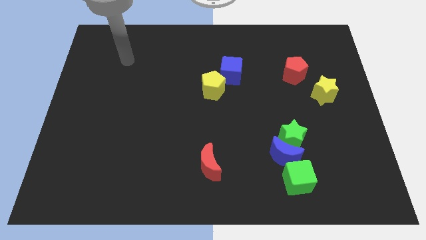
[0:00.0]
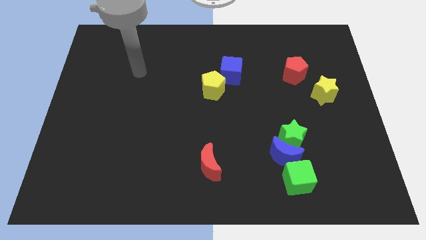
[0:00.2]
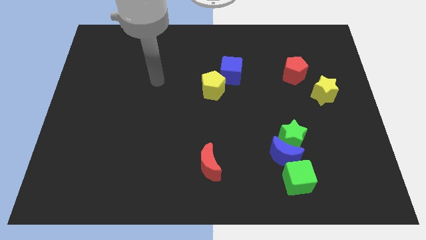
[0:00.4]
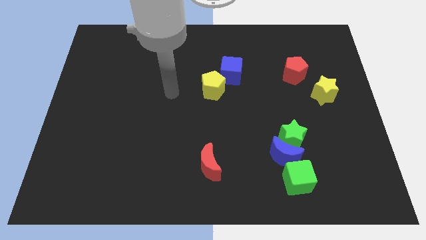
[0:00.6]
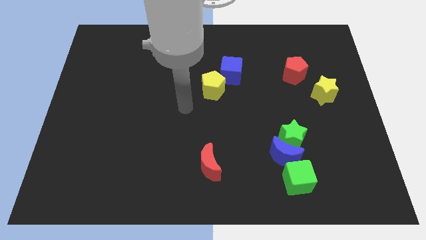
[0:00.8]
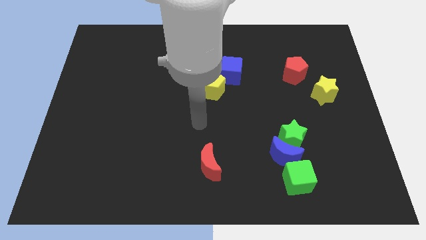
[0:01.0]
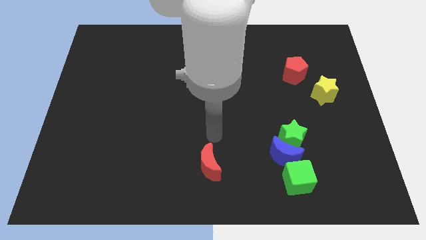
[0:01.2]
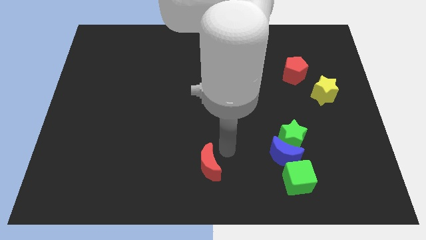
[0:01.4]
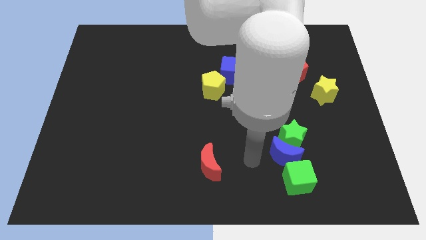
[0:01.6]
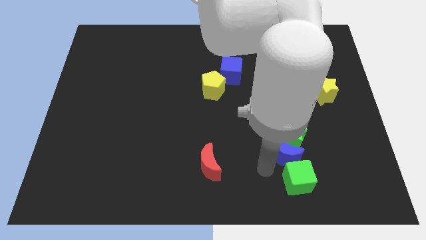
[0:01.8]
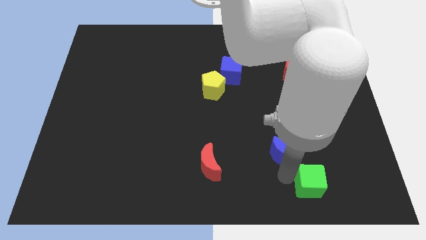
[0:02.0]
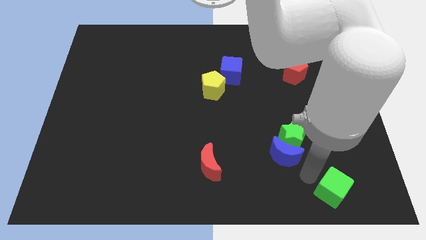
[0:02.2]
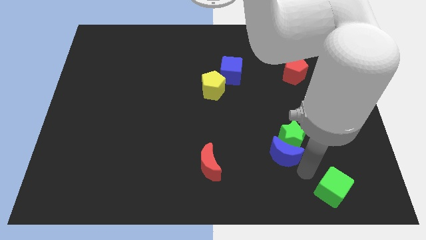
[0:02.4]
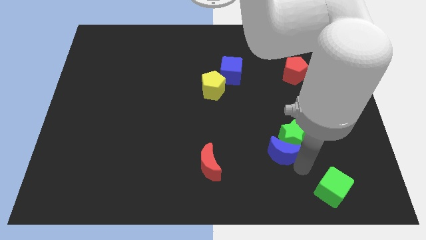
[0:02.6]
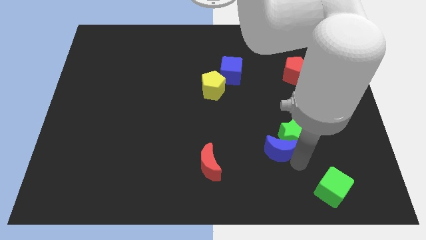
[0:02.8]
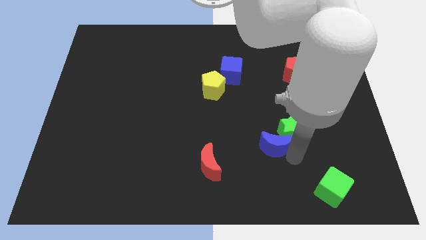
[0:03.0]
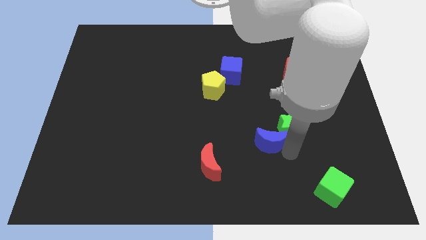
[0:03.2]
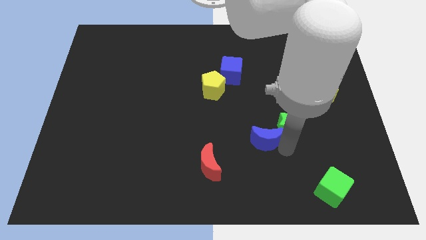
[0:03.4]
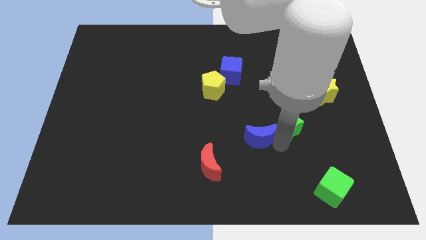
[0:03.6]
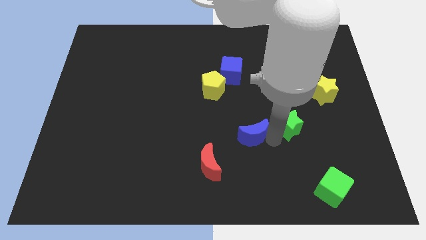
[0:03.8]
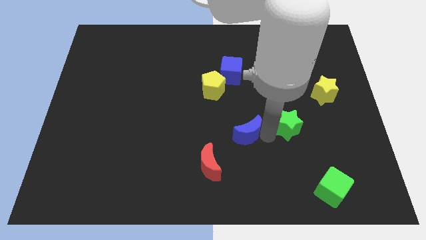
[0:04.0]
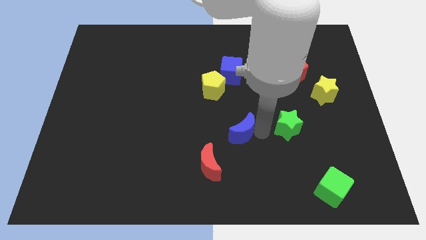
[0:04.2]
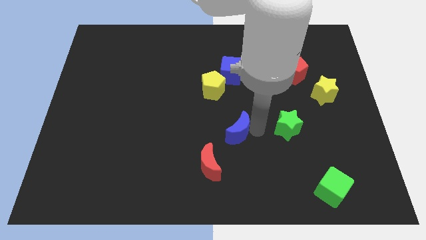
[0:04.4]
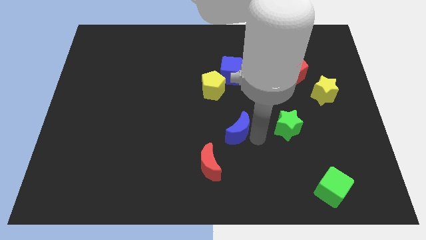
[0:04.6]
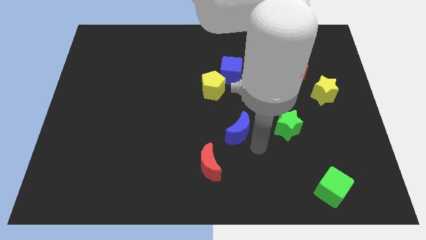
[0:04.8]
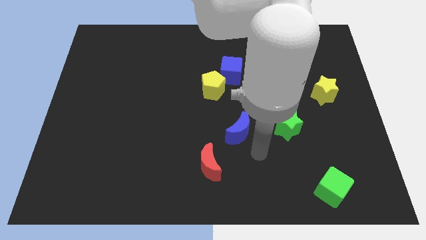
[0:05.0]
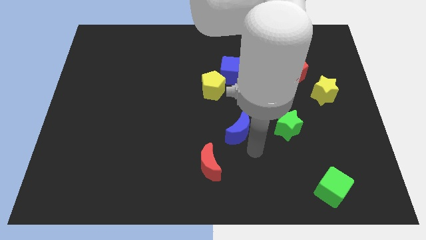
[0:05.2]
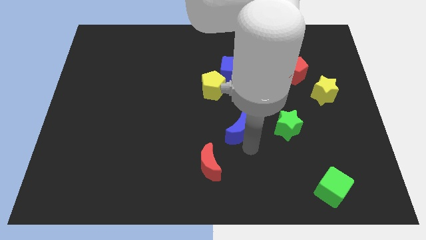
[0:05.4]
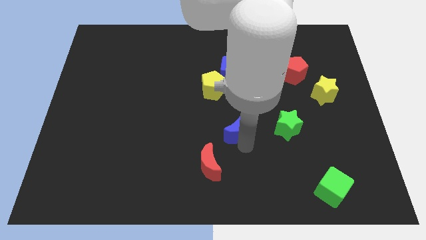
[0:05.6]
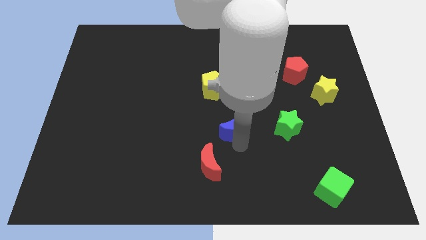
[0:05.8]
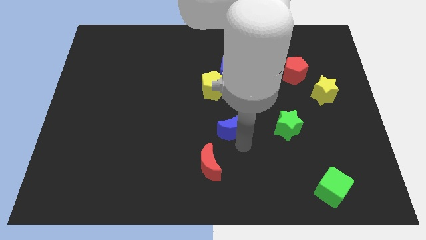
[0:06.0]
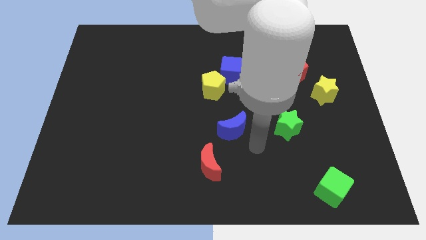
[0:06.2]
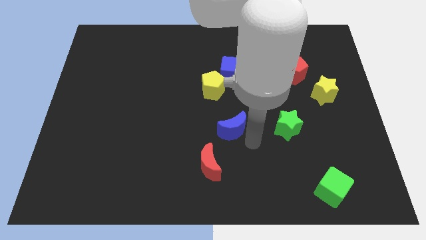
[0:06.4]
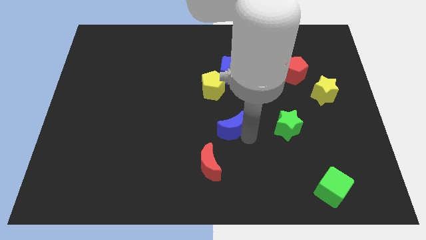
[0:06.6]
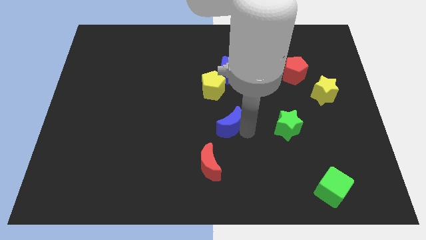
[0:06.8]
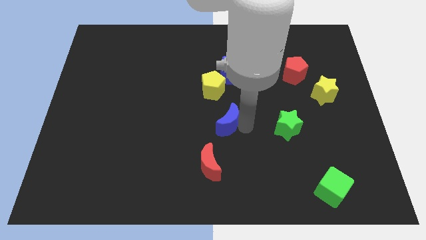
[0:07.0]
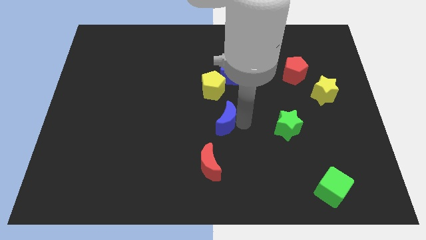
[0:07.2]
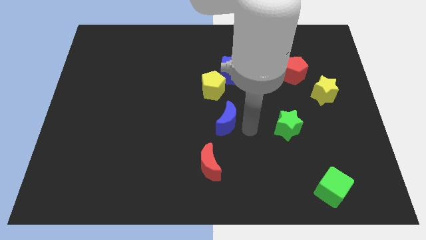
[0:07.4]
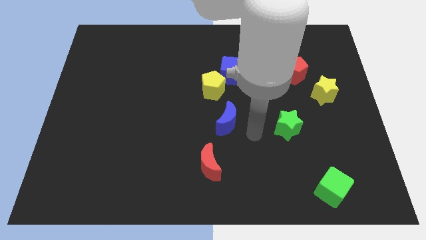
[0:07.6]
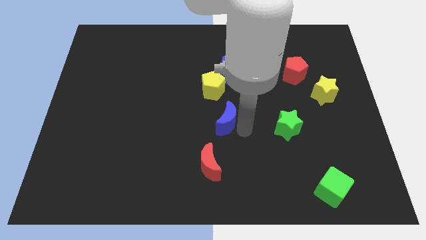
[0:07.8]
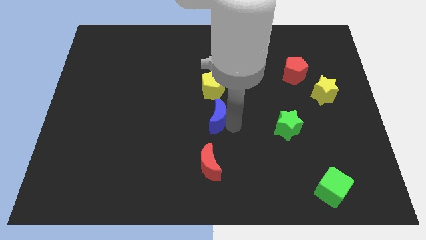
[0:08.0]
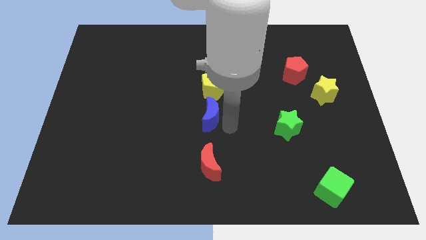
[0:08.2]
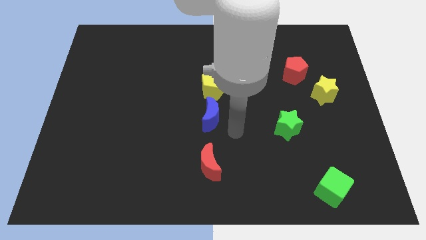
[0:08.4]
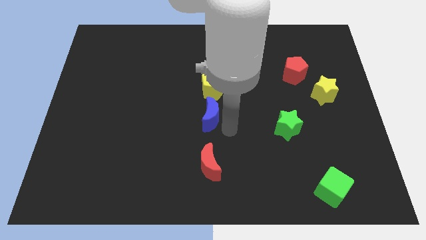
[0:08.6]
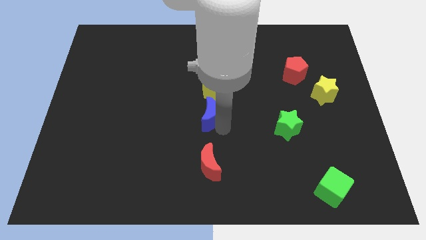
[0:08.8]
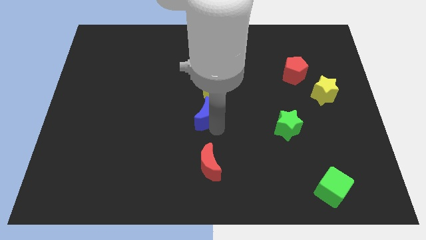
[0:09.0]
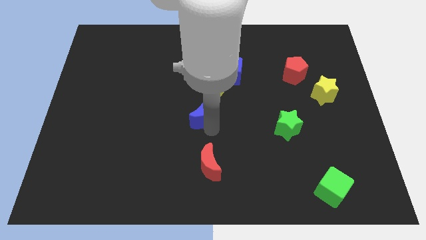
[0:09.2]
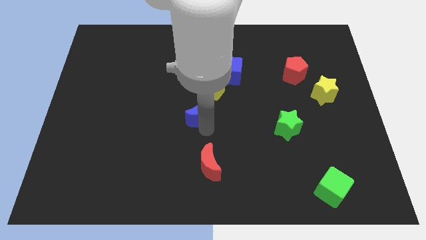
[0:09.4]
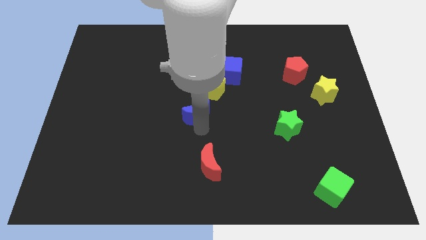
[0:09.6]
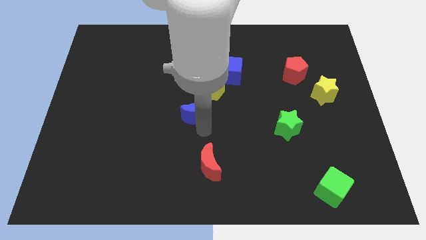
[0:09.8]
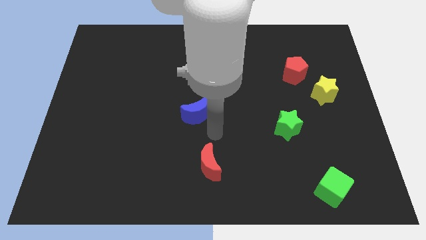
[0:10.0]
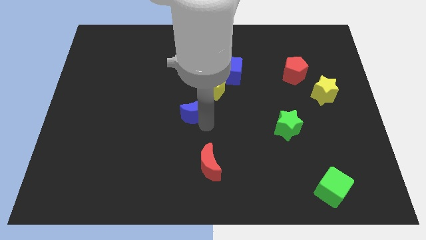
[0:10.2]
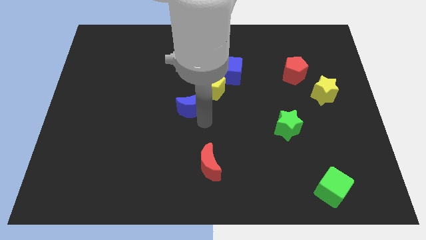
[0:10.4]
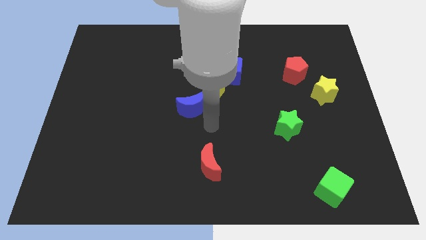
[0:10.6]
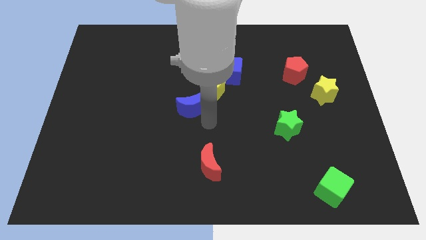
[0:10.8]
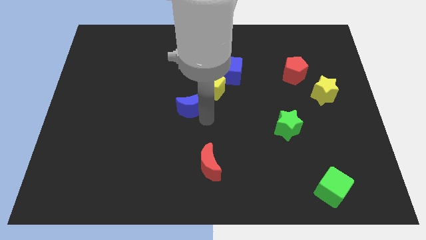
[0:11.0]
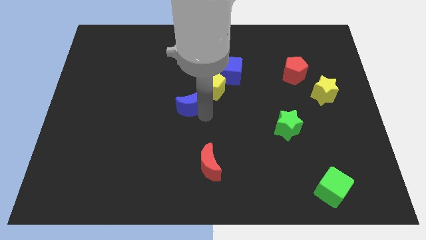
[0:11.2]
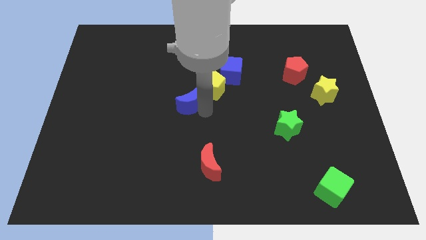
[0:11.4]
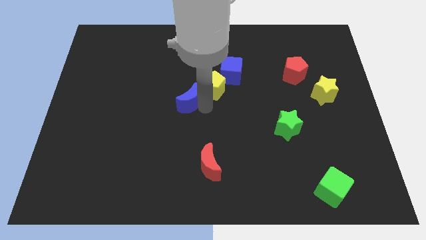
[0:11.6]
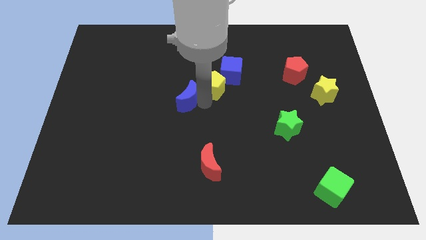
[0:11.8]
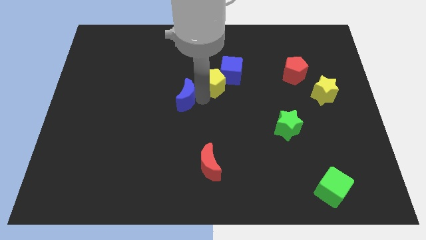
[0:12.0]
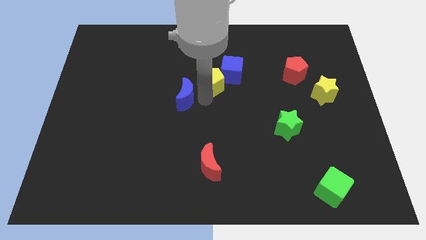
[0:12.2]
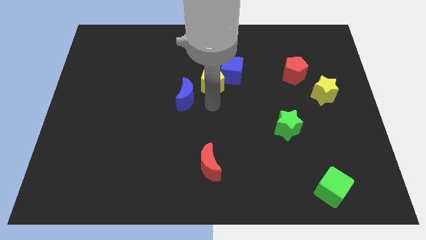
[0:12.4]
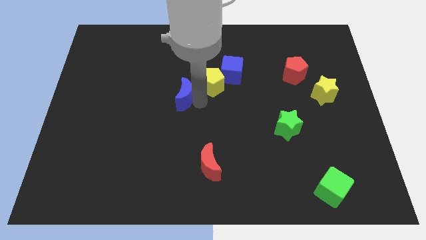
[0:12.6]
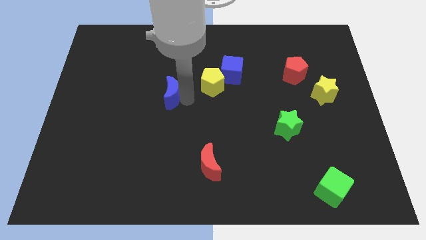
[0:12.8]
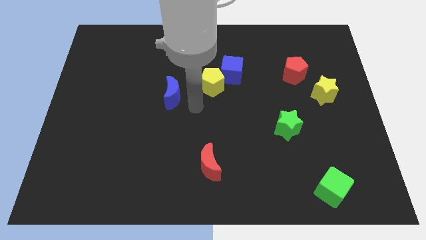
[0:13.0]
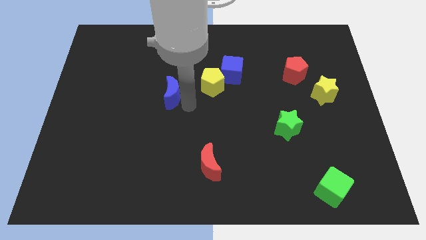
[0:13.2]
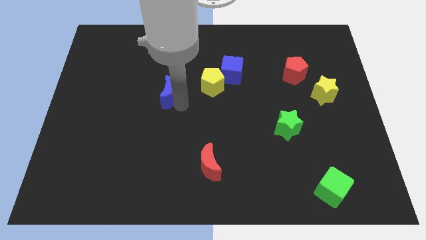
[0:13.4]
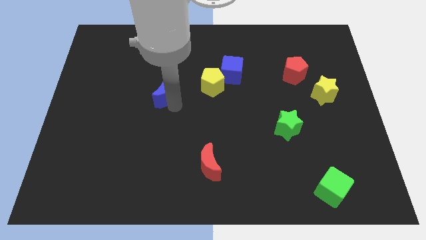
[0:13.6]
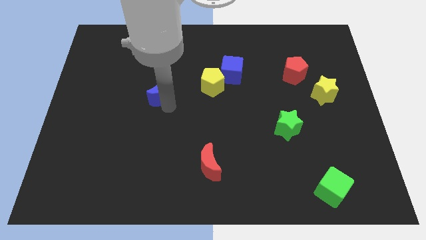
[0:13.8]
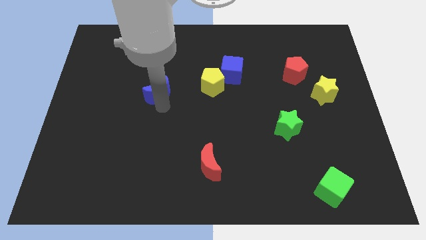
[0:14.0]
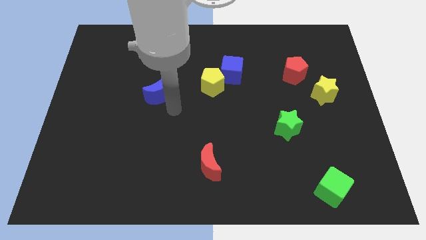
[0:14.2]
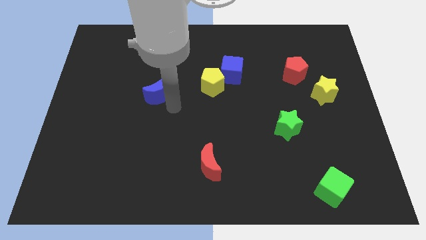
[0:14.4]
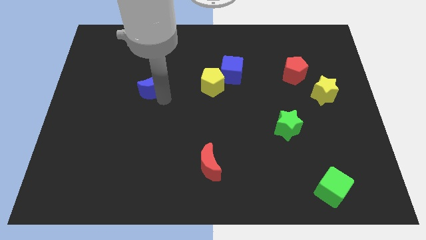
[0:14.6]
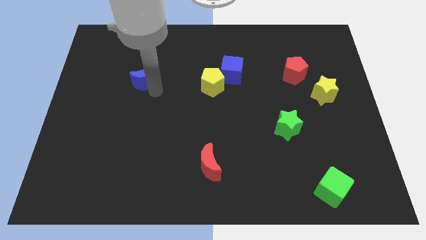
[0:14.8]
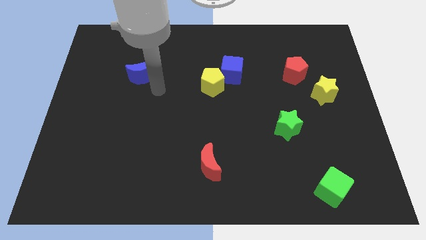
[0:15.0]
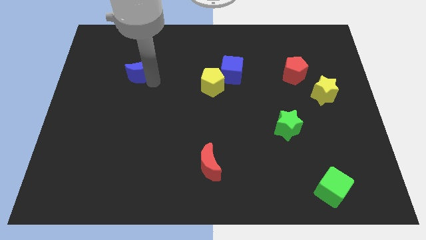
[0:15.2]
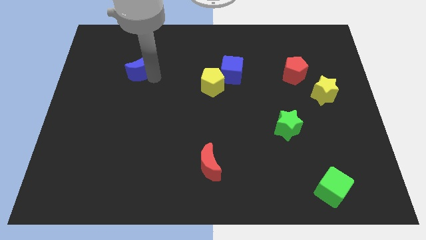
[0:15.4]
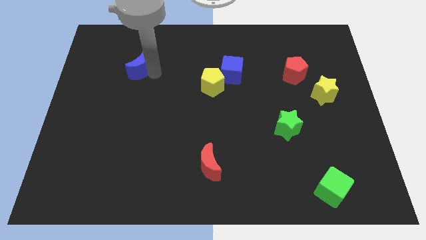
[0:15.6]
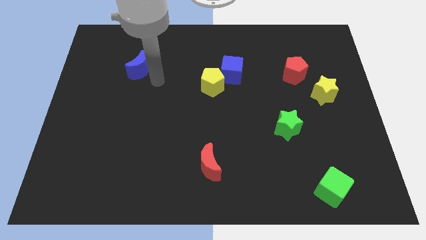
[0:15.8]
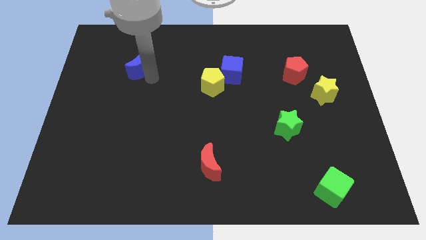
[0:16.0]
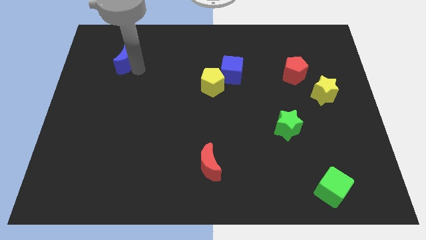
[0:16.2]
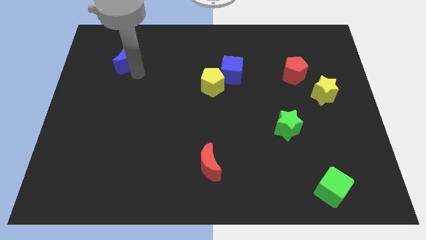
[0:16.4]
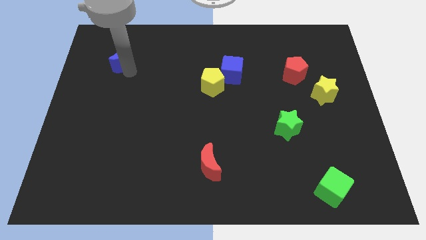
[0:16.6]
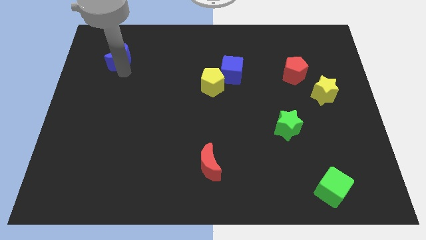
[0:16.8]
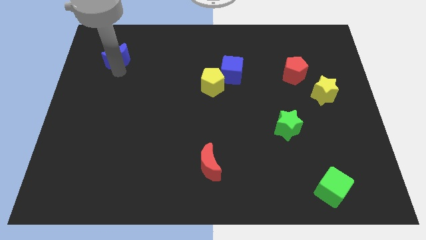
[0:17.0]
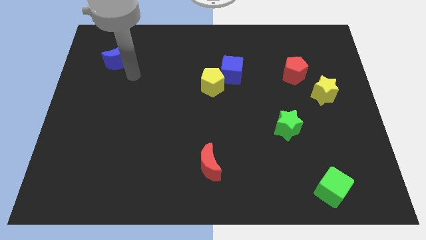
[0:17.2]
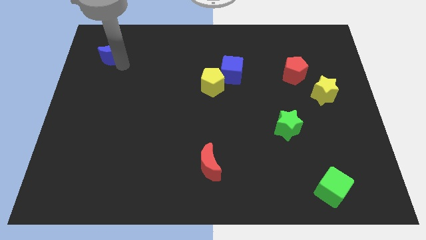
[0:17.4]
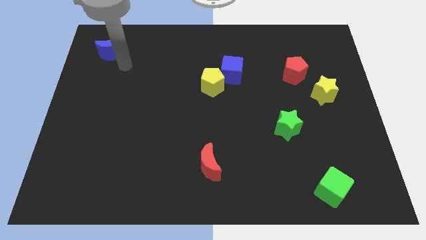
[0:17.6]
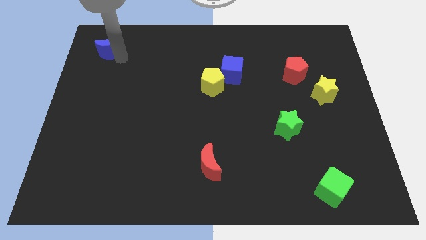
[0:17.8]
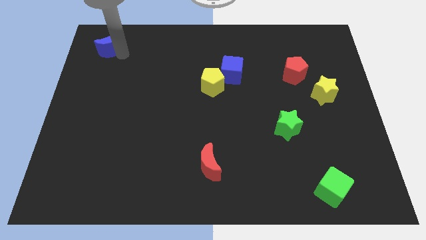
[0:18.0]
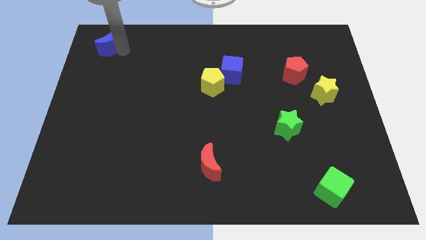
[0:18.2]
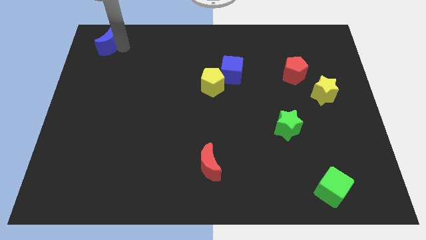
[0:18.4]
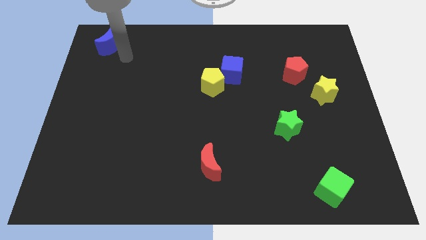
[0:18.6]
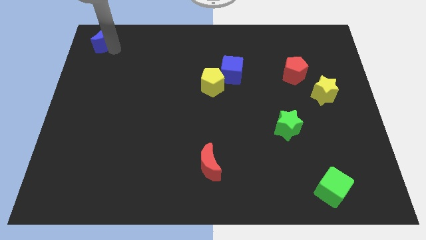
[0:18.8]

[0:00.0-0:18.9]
move the blue moon to the top left of the board
